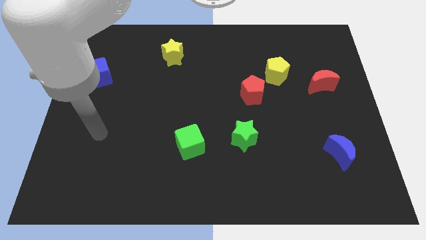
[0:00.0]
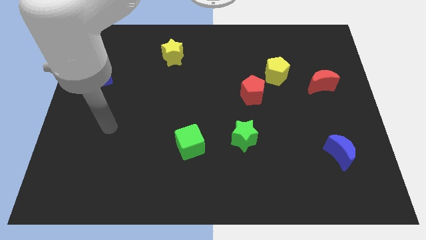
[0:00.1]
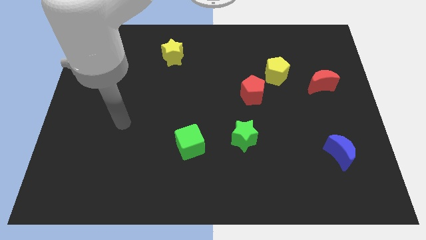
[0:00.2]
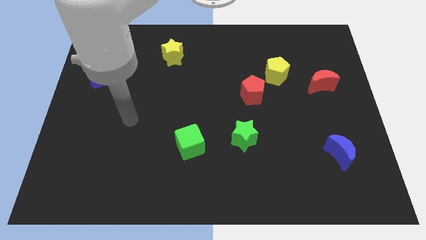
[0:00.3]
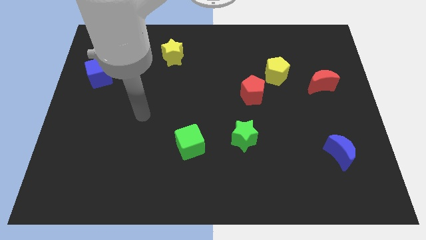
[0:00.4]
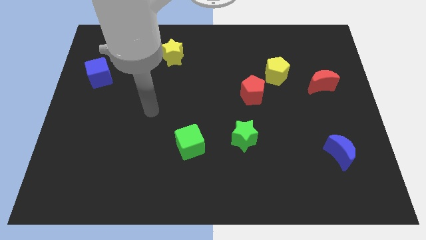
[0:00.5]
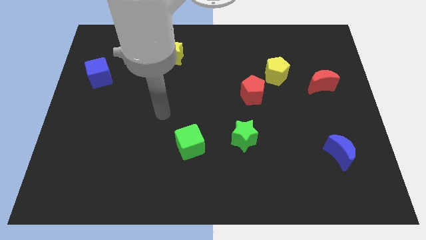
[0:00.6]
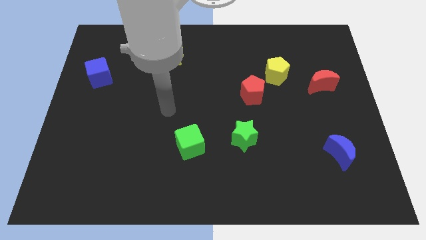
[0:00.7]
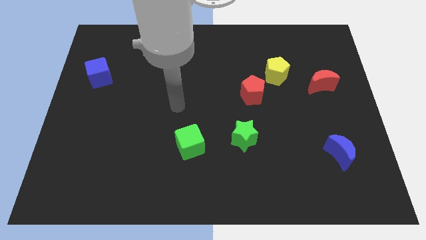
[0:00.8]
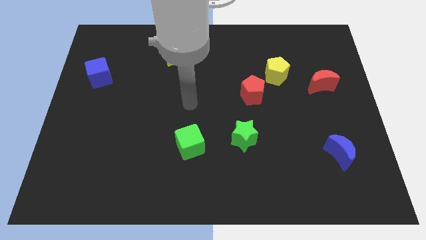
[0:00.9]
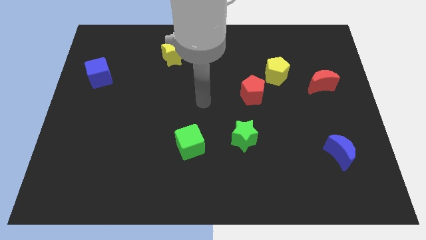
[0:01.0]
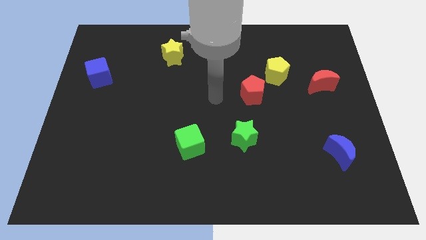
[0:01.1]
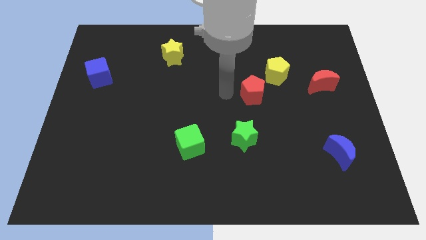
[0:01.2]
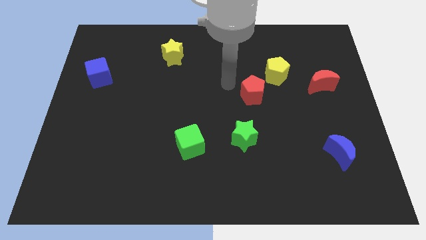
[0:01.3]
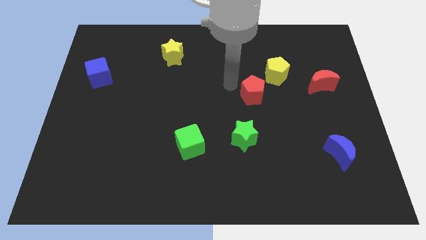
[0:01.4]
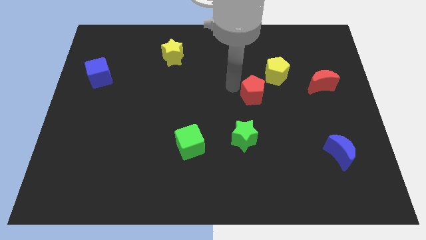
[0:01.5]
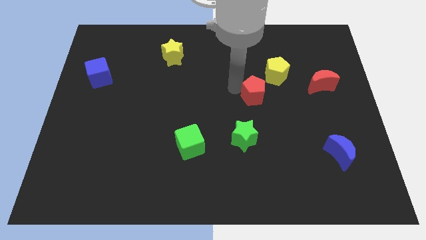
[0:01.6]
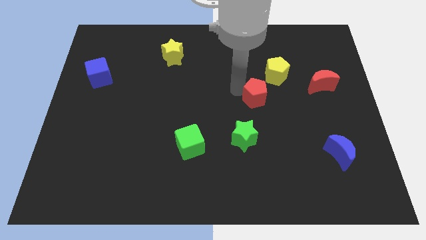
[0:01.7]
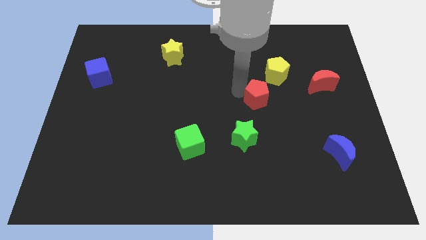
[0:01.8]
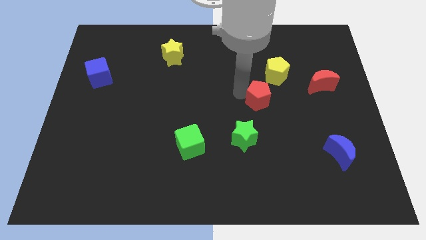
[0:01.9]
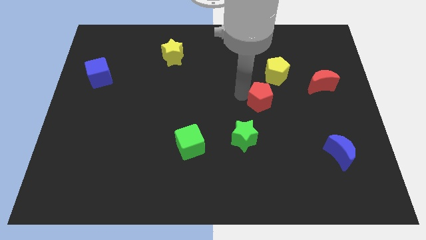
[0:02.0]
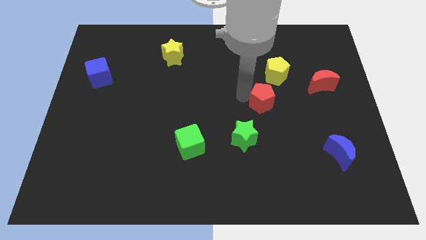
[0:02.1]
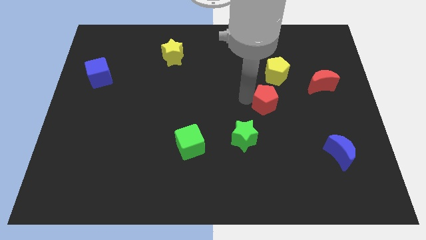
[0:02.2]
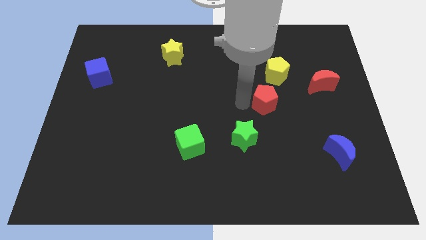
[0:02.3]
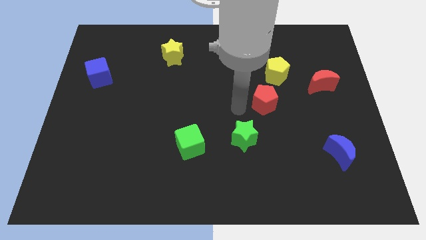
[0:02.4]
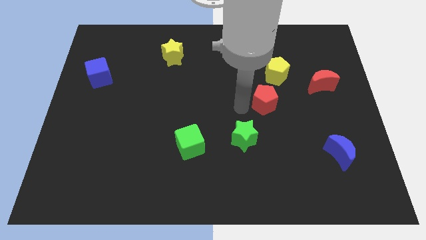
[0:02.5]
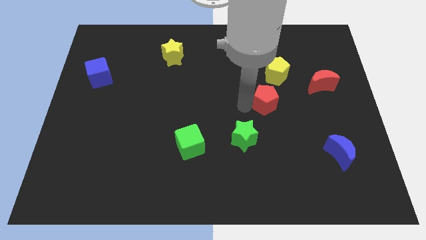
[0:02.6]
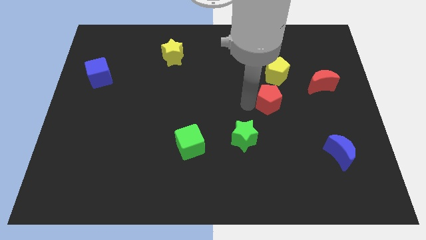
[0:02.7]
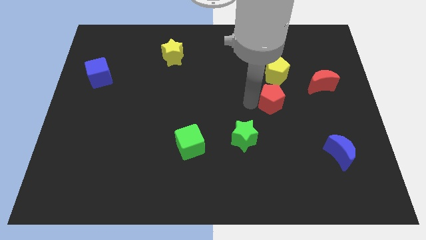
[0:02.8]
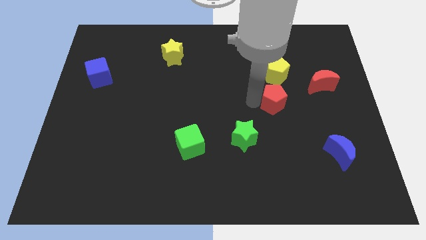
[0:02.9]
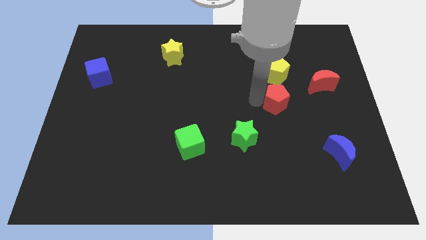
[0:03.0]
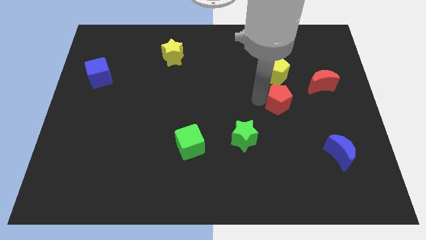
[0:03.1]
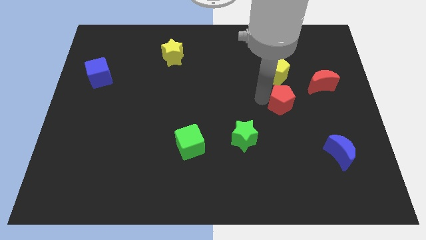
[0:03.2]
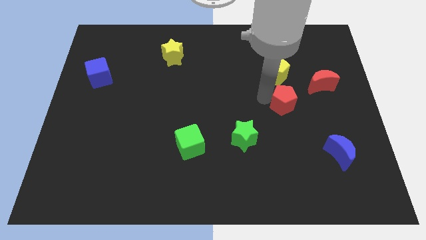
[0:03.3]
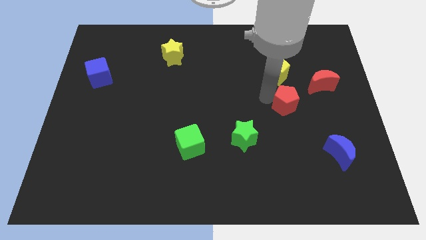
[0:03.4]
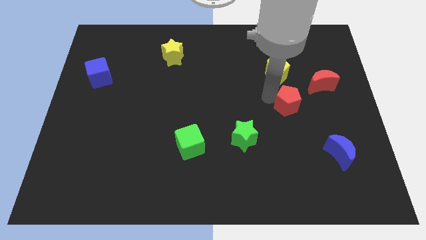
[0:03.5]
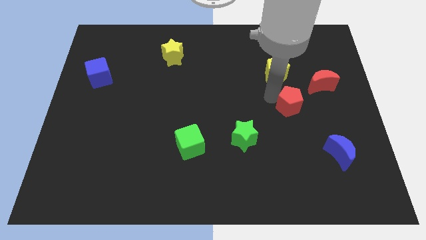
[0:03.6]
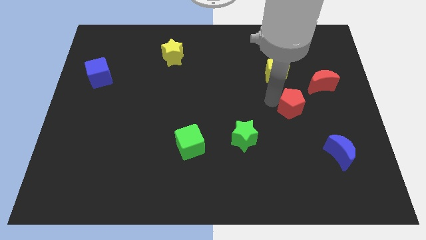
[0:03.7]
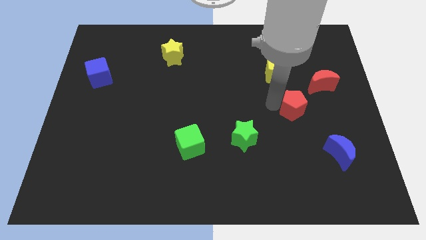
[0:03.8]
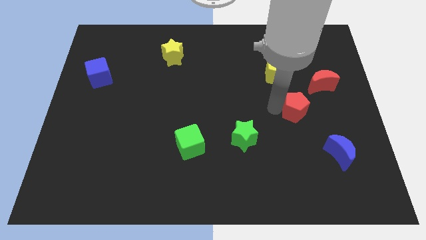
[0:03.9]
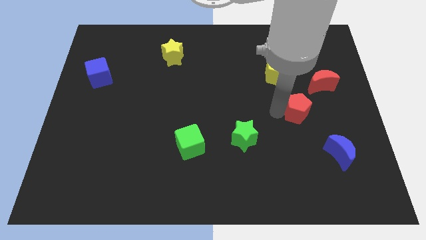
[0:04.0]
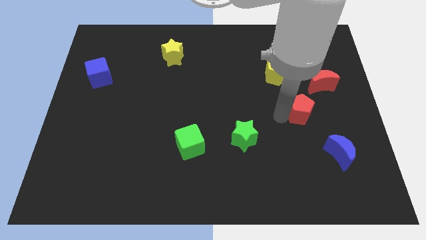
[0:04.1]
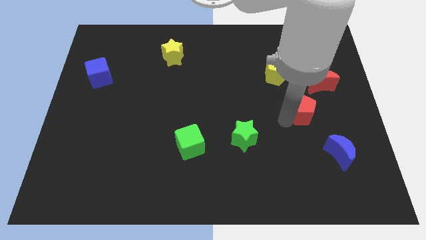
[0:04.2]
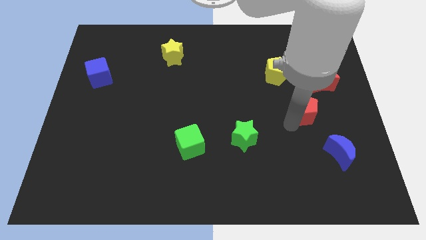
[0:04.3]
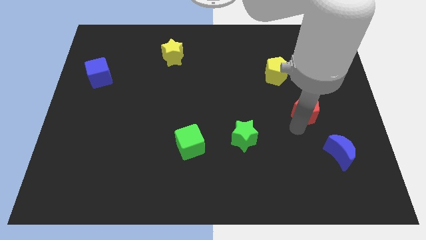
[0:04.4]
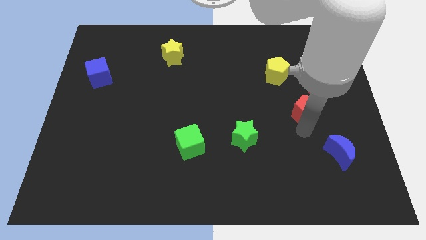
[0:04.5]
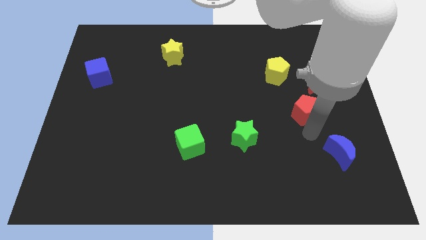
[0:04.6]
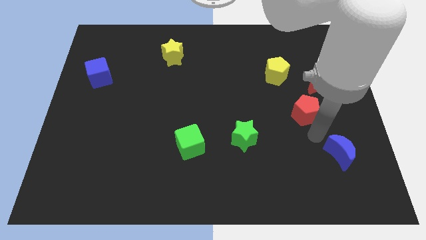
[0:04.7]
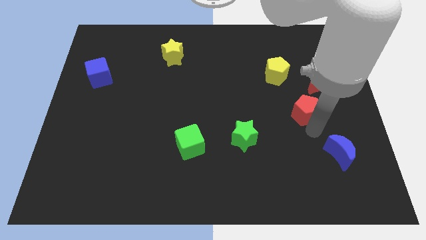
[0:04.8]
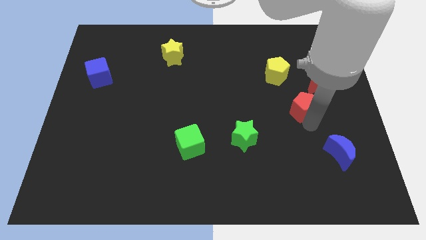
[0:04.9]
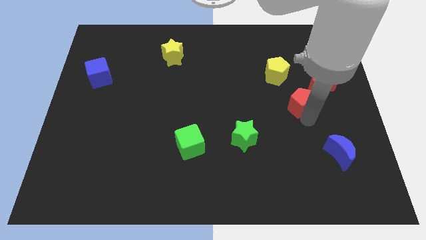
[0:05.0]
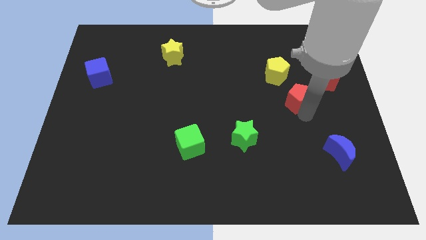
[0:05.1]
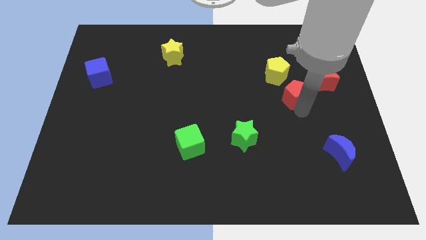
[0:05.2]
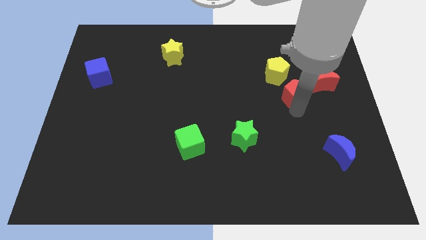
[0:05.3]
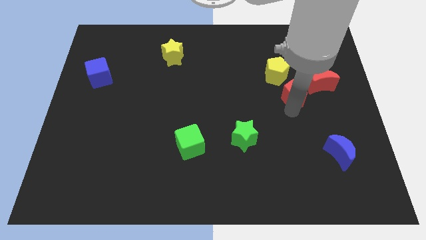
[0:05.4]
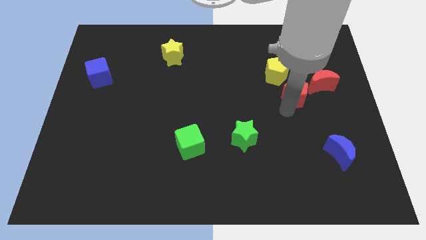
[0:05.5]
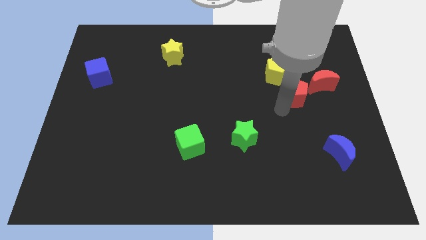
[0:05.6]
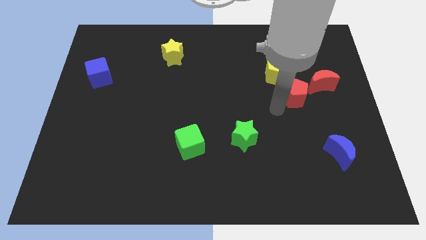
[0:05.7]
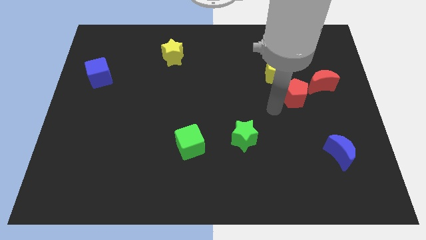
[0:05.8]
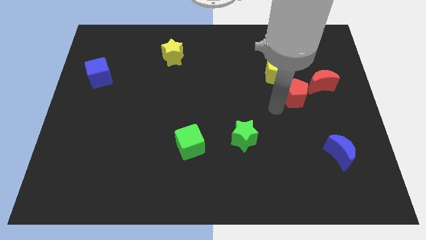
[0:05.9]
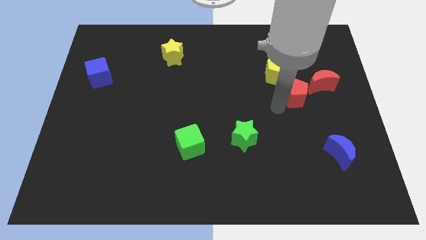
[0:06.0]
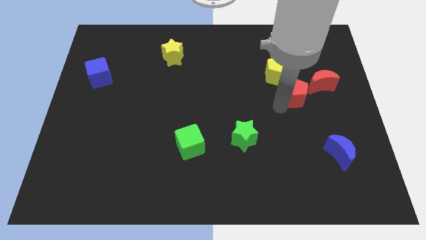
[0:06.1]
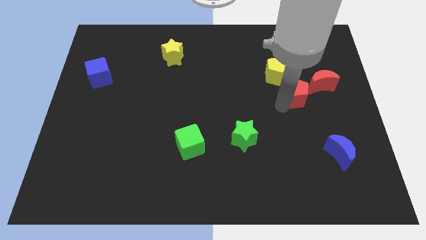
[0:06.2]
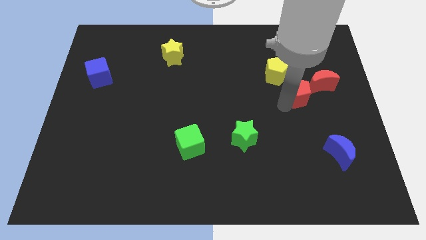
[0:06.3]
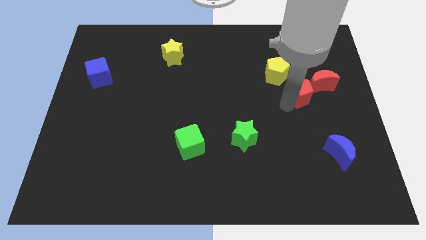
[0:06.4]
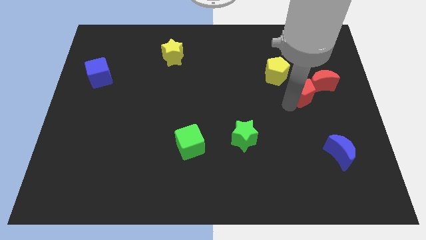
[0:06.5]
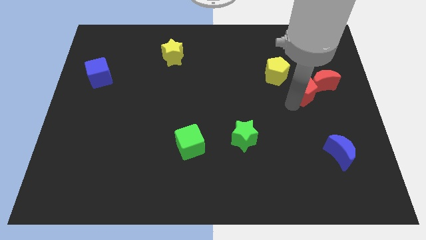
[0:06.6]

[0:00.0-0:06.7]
push the red pentagon next to the red moon

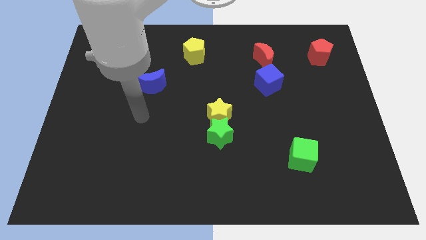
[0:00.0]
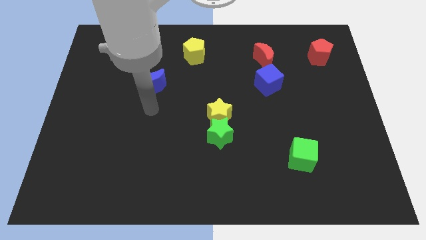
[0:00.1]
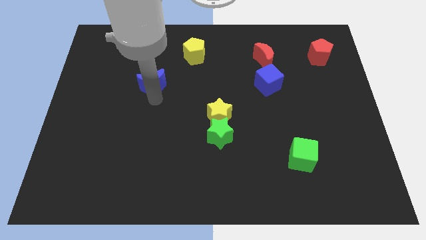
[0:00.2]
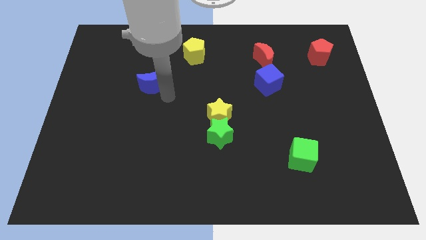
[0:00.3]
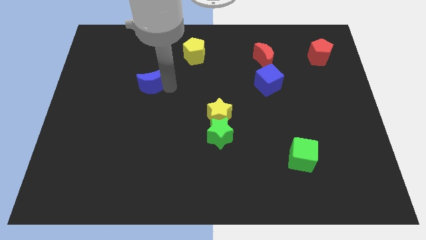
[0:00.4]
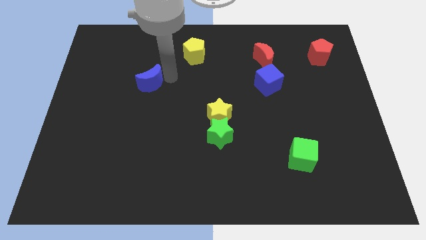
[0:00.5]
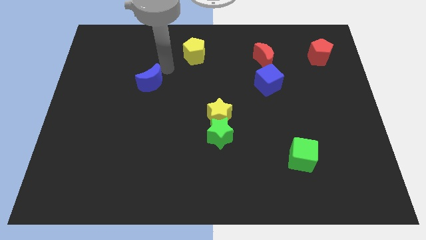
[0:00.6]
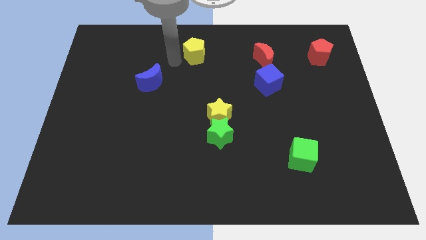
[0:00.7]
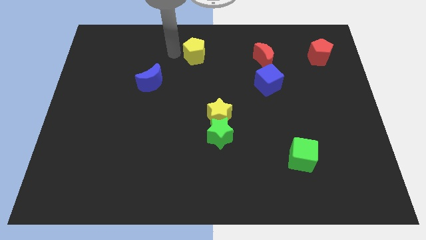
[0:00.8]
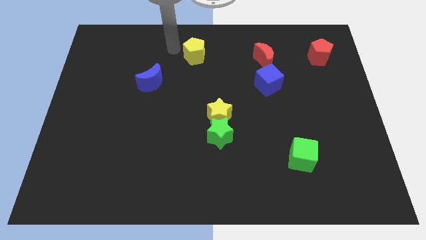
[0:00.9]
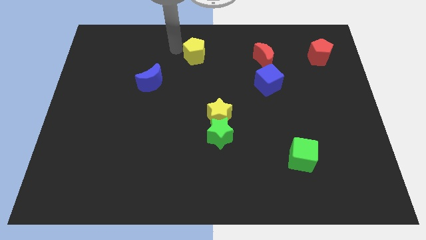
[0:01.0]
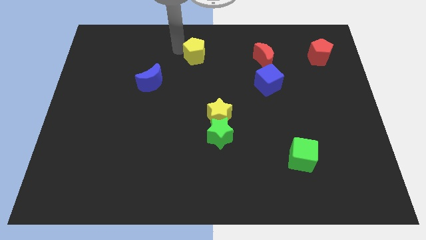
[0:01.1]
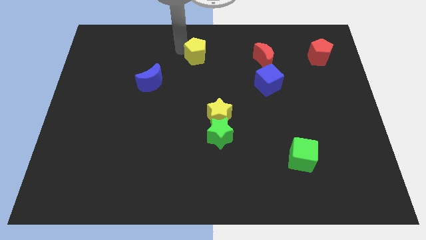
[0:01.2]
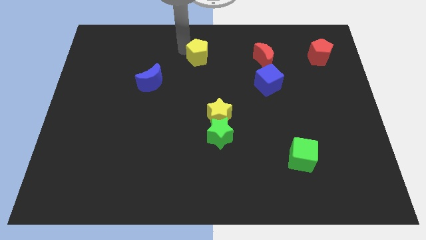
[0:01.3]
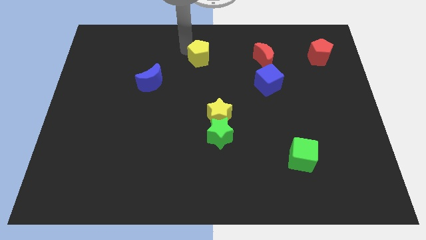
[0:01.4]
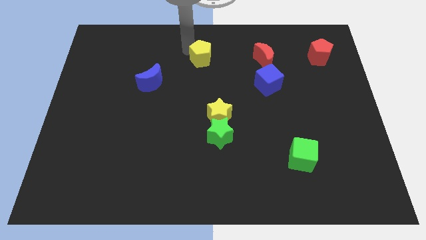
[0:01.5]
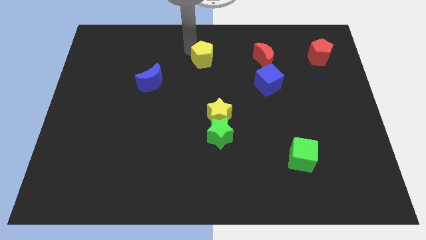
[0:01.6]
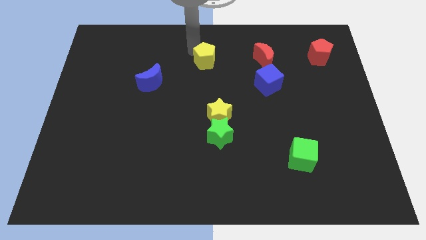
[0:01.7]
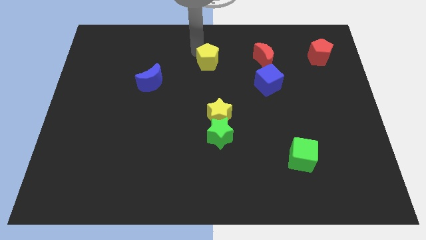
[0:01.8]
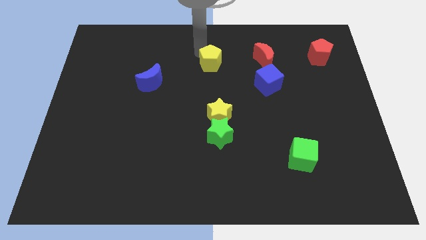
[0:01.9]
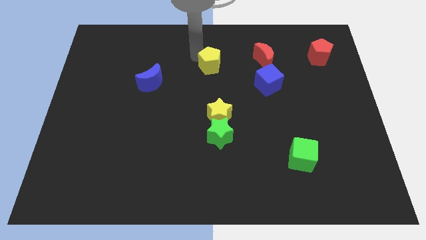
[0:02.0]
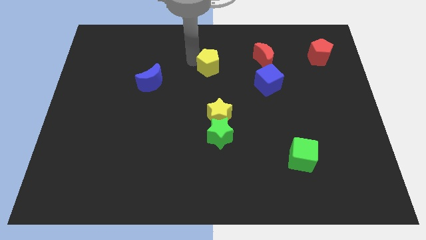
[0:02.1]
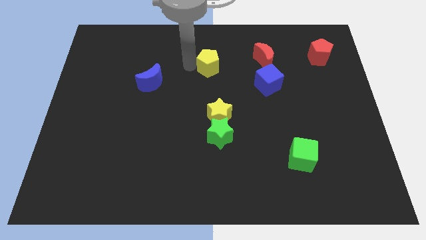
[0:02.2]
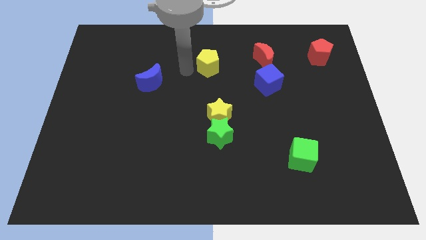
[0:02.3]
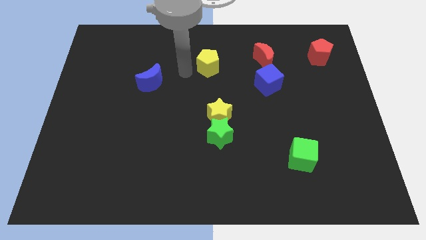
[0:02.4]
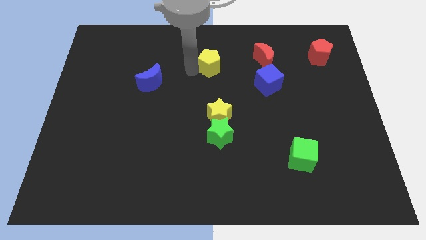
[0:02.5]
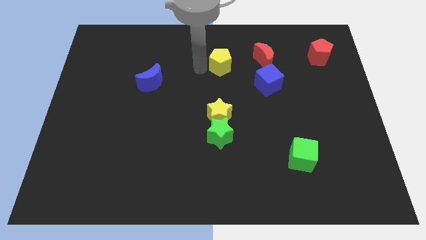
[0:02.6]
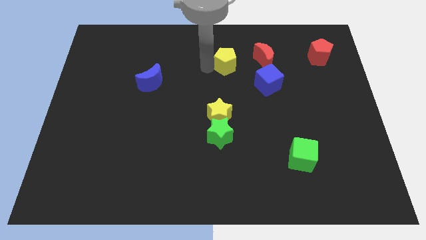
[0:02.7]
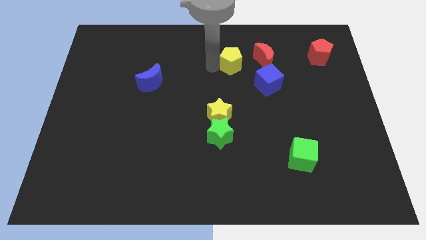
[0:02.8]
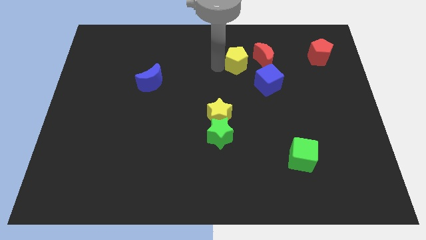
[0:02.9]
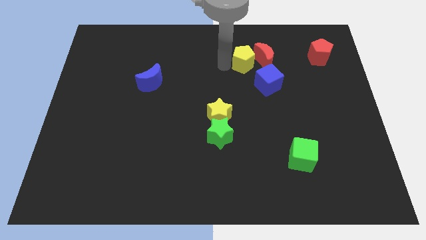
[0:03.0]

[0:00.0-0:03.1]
put the yellow pentagon to the red moon
